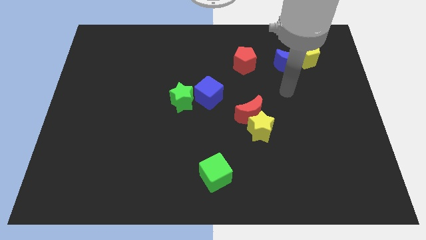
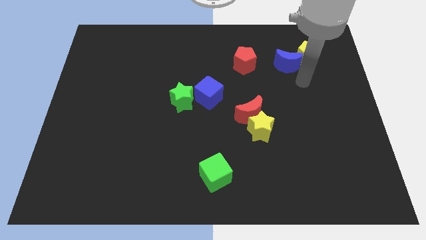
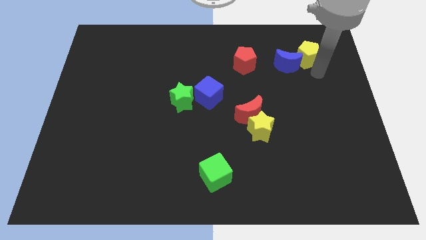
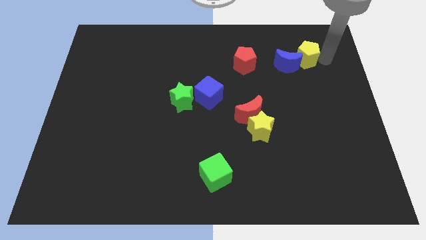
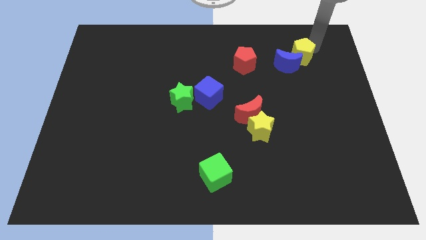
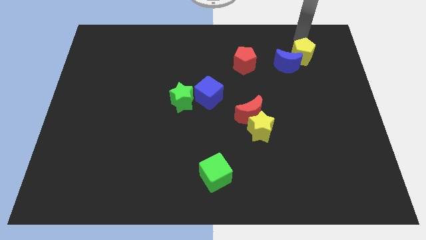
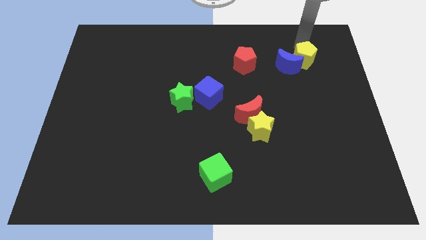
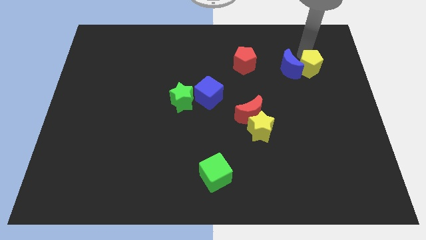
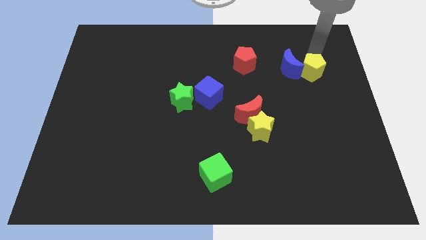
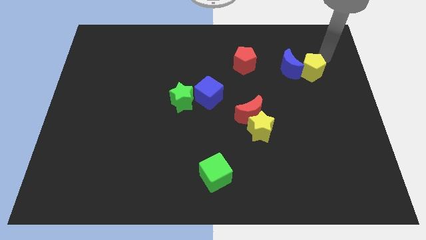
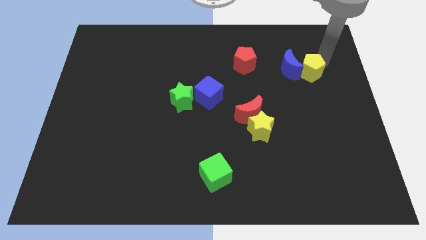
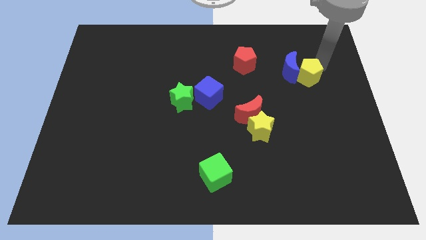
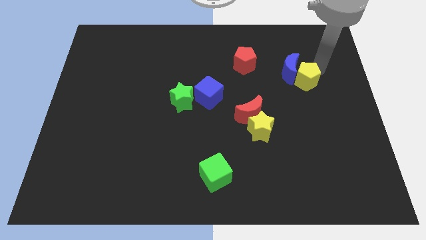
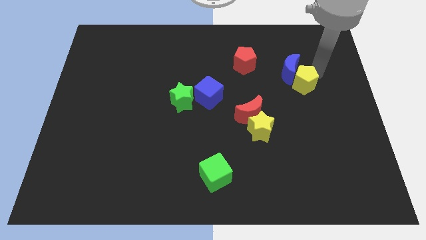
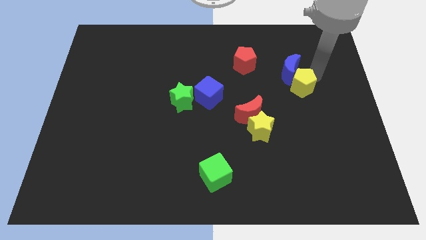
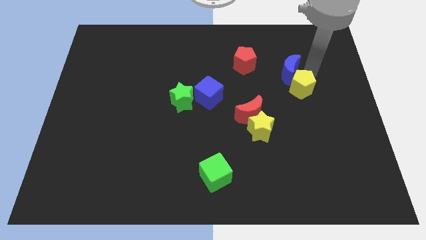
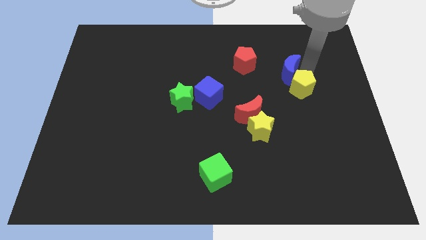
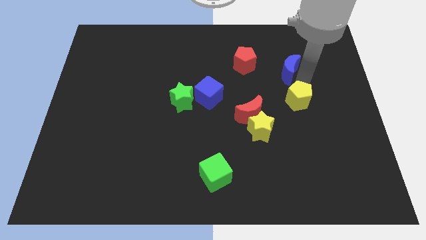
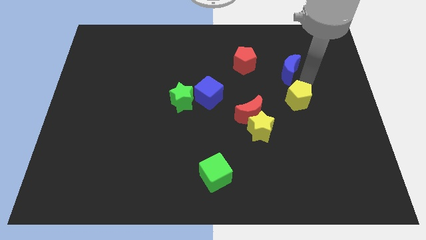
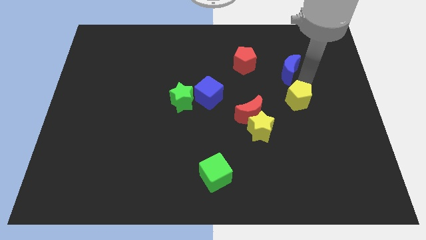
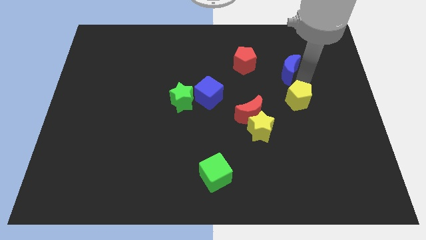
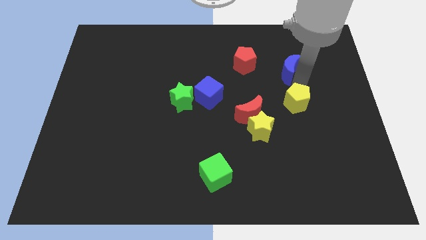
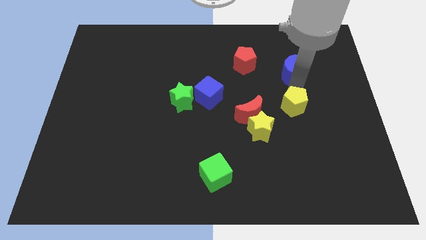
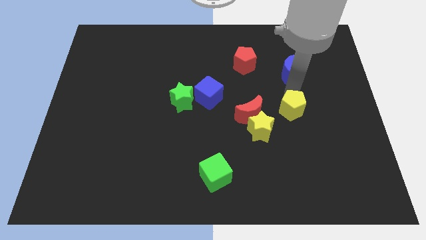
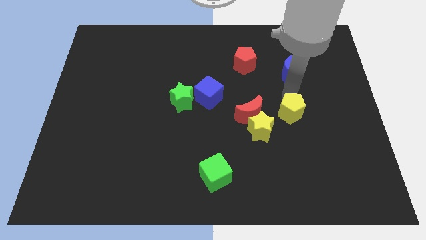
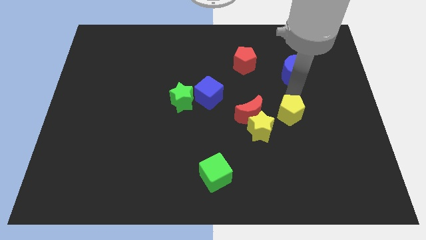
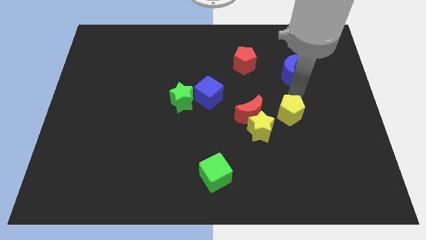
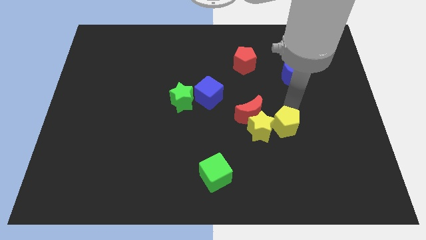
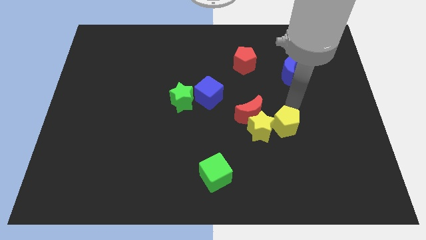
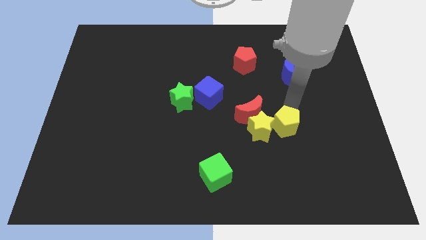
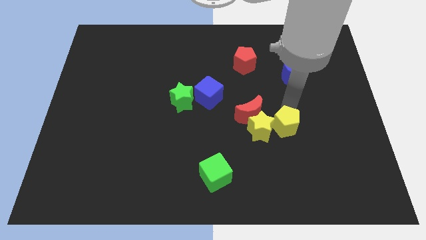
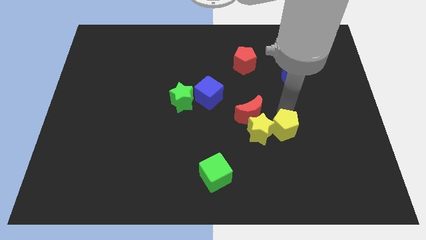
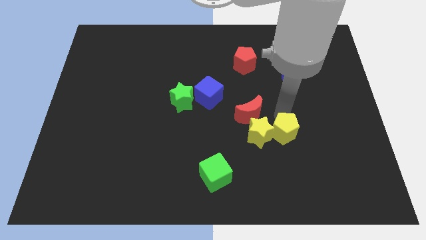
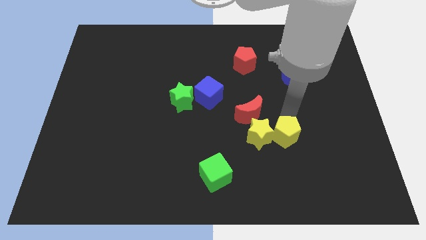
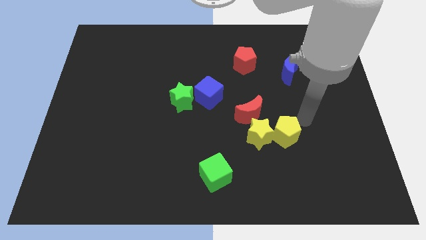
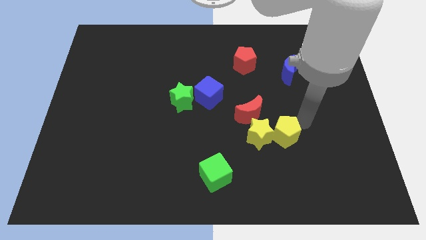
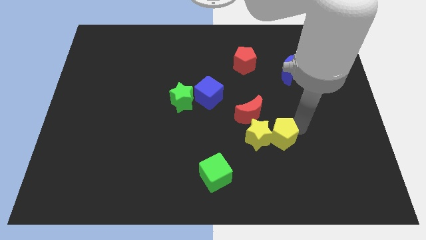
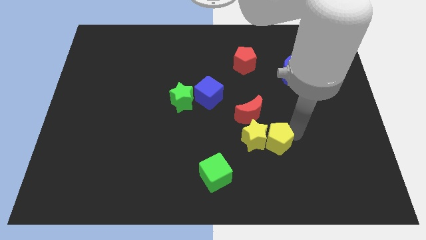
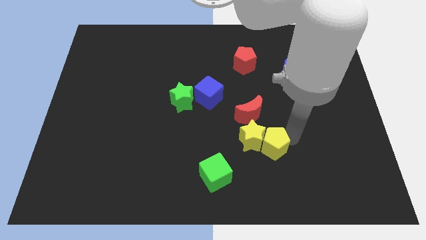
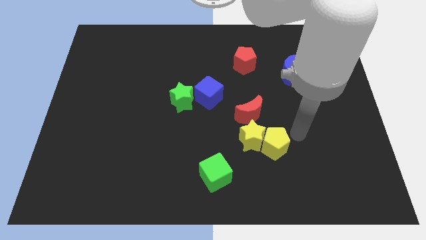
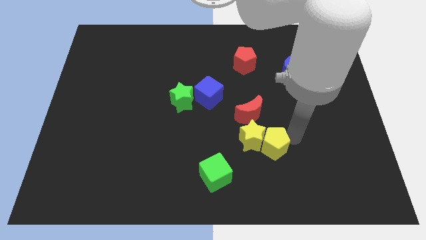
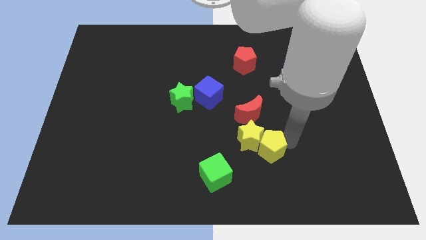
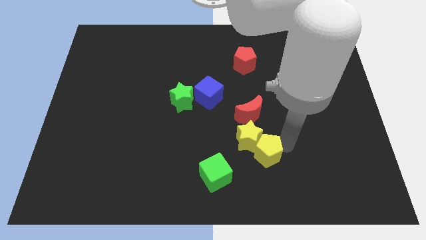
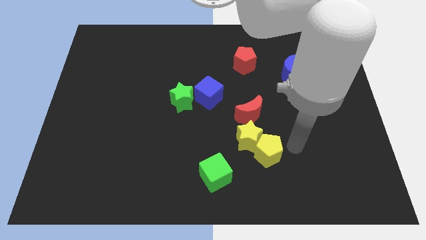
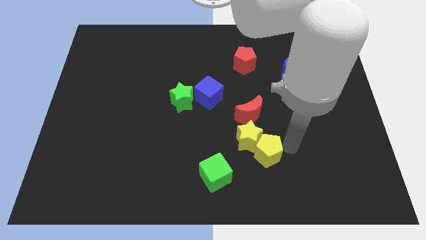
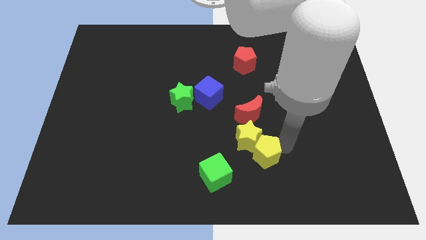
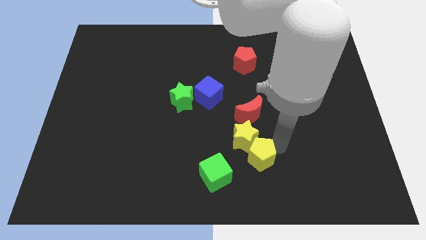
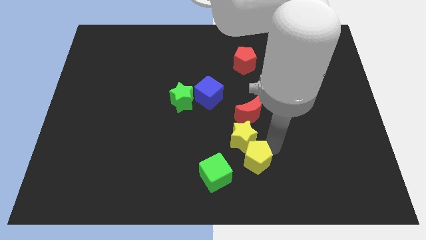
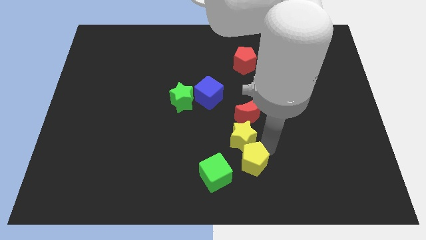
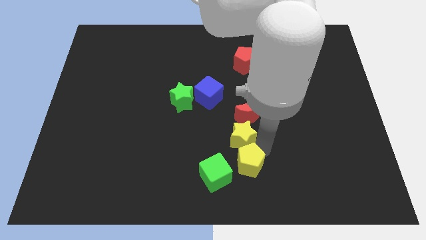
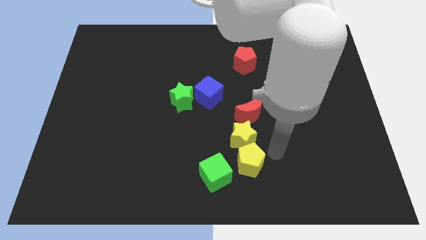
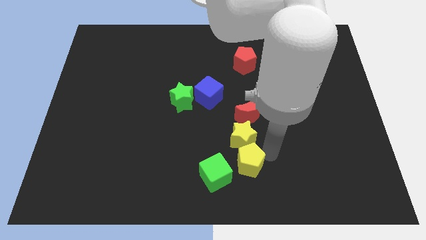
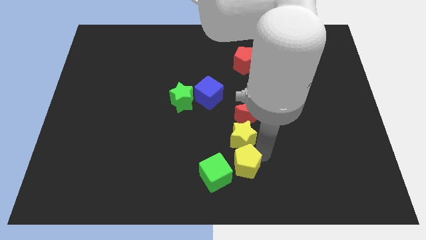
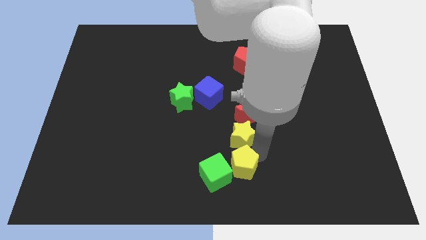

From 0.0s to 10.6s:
slide the yellow pentagon to the green cube
